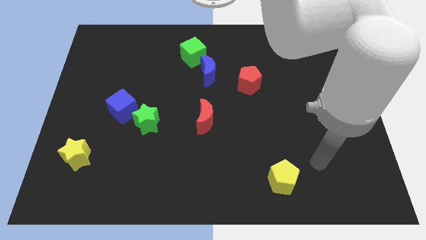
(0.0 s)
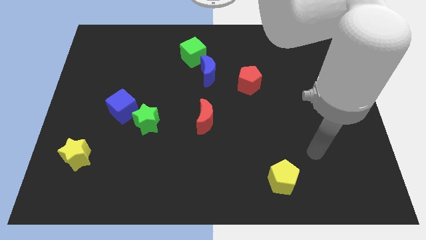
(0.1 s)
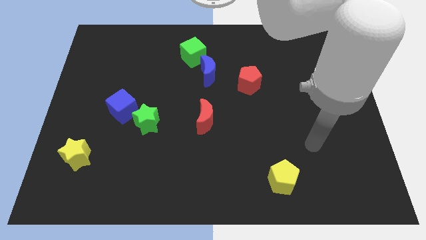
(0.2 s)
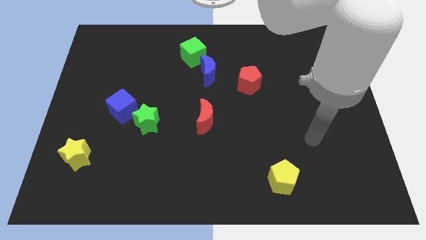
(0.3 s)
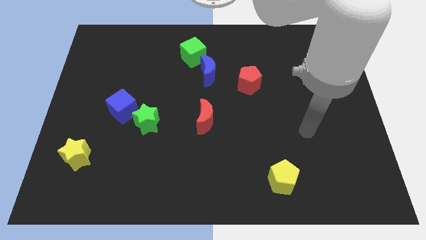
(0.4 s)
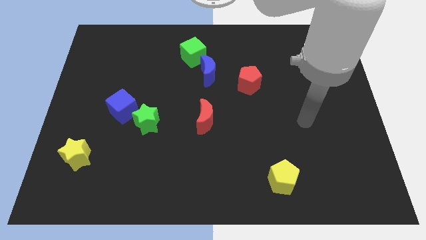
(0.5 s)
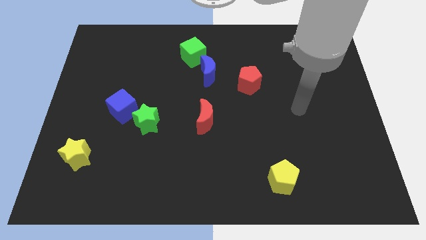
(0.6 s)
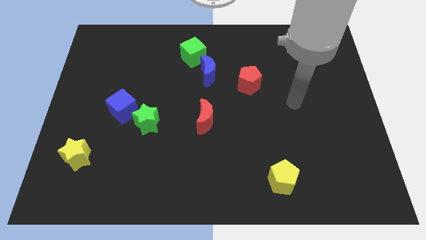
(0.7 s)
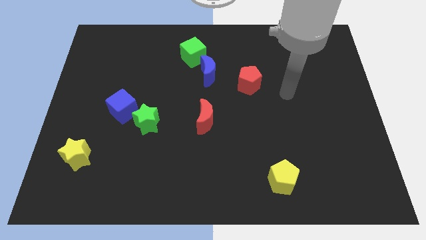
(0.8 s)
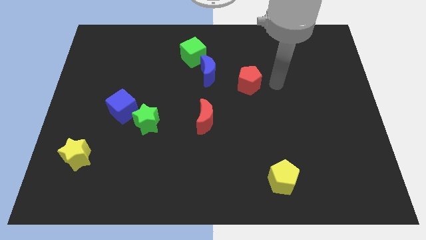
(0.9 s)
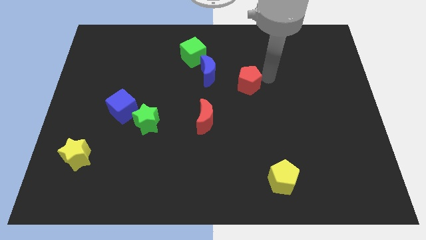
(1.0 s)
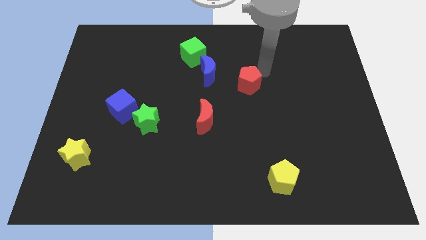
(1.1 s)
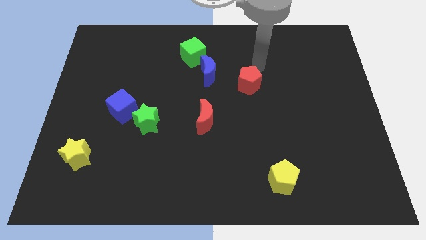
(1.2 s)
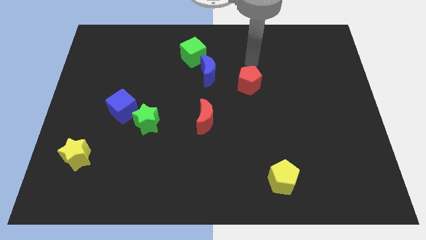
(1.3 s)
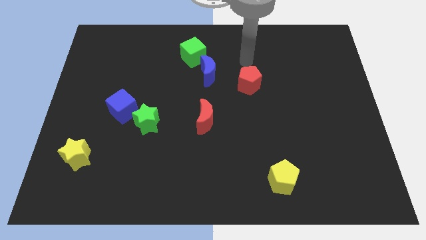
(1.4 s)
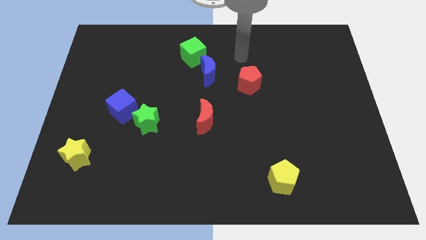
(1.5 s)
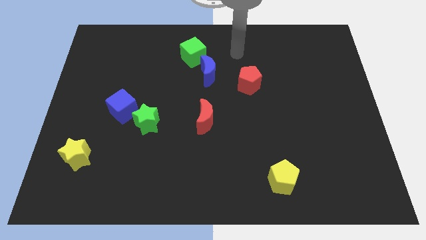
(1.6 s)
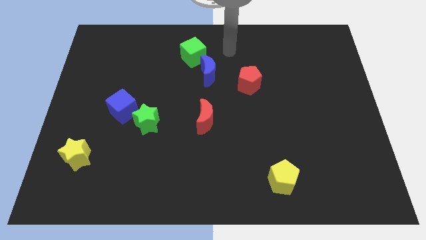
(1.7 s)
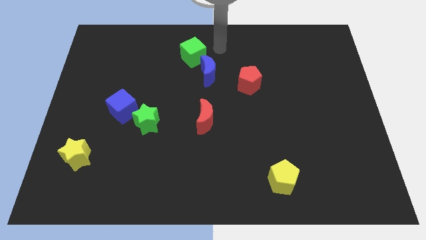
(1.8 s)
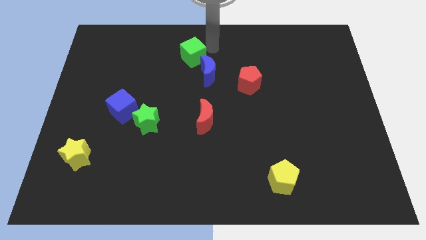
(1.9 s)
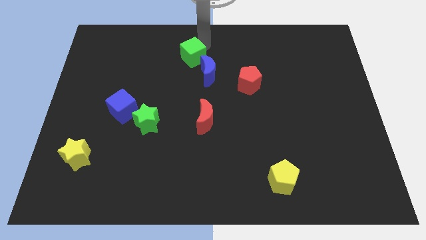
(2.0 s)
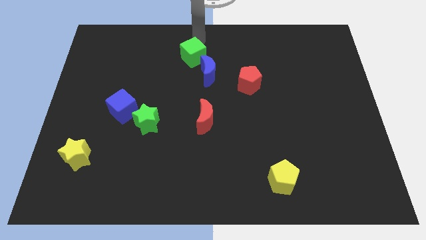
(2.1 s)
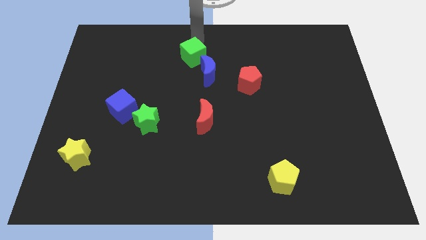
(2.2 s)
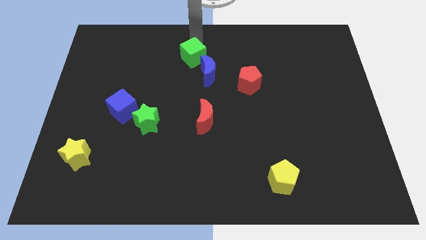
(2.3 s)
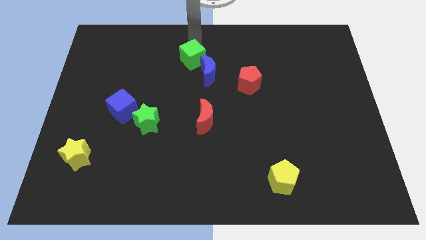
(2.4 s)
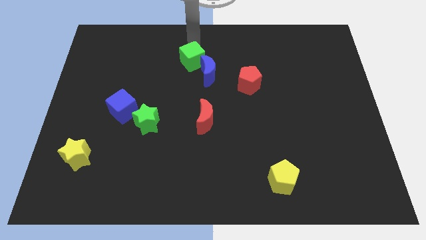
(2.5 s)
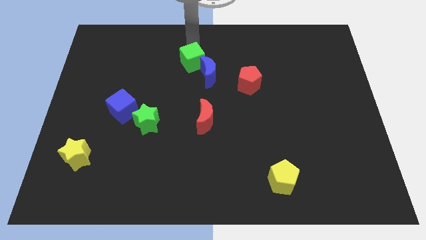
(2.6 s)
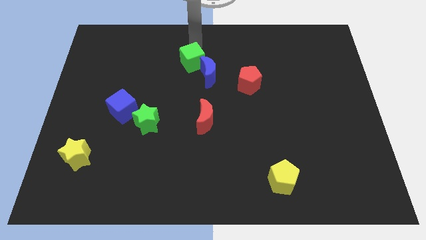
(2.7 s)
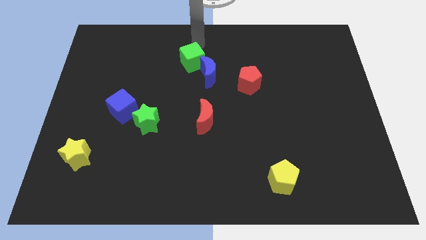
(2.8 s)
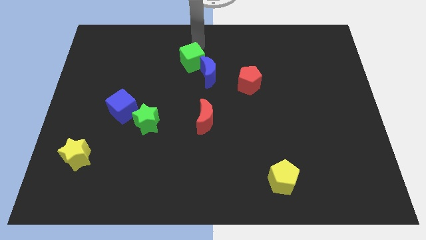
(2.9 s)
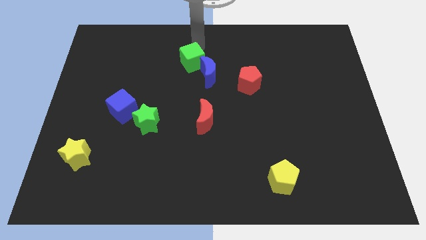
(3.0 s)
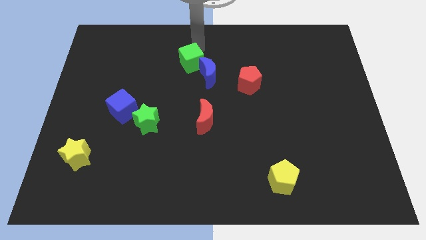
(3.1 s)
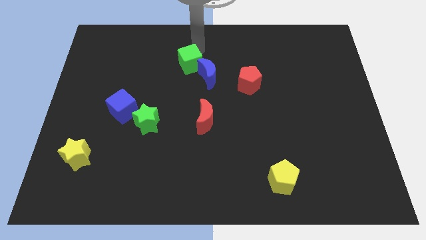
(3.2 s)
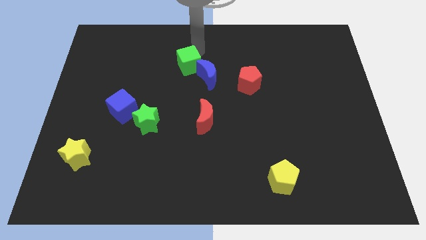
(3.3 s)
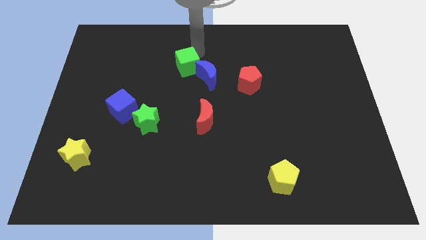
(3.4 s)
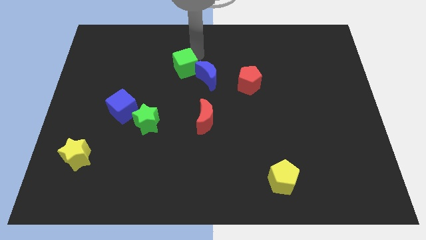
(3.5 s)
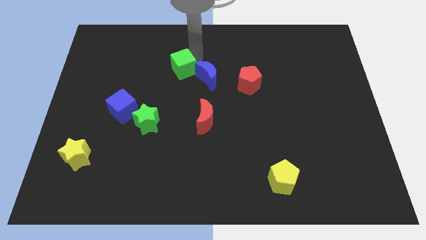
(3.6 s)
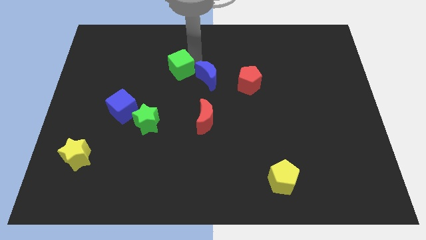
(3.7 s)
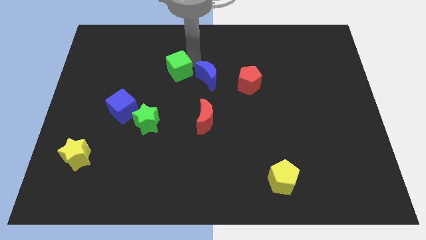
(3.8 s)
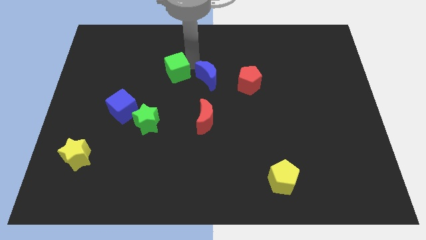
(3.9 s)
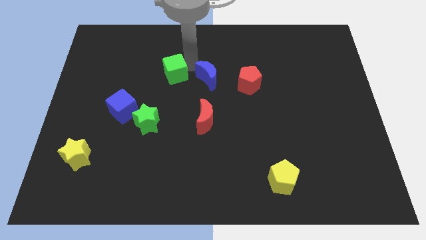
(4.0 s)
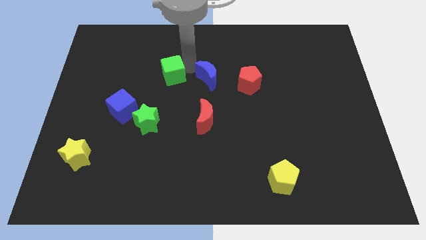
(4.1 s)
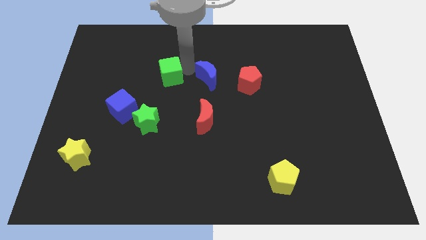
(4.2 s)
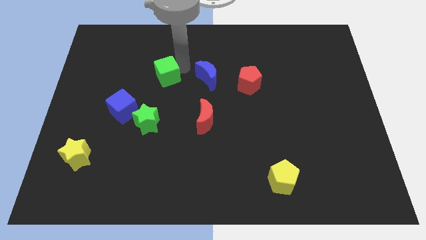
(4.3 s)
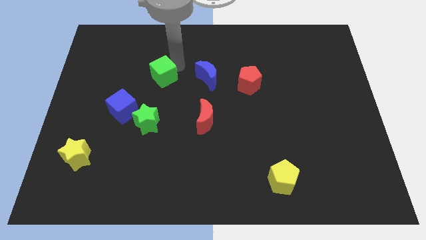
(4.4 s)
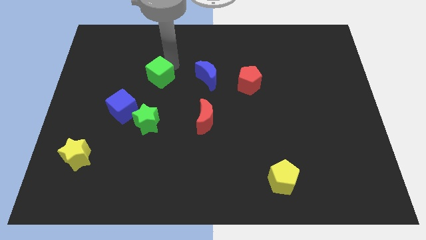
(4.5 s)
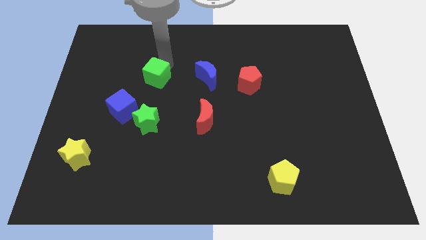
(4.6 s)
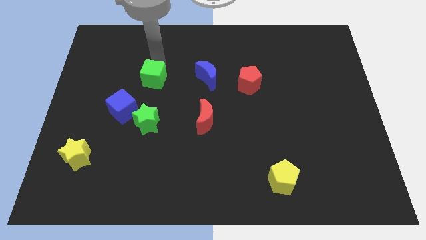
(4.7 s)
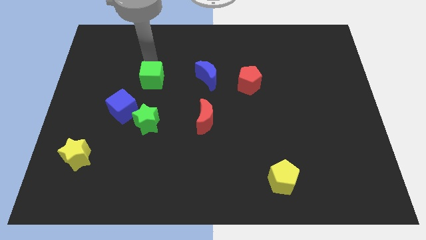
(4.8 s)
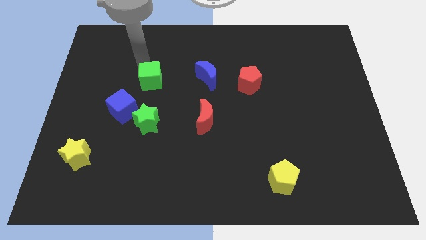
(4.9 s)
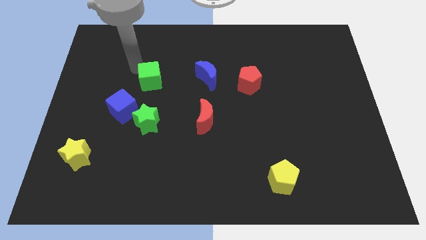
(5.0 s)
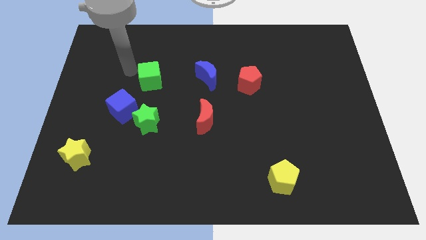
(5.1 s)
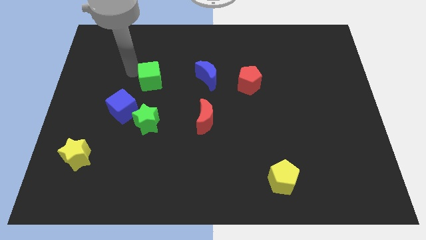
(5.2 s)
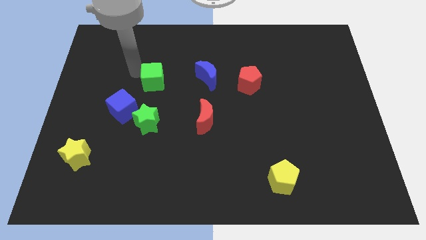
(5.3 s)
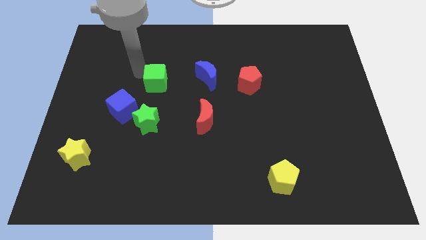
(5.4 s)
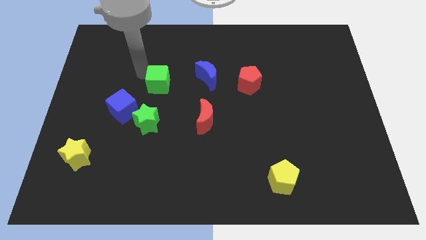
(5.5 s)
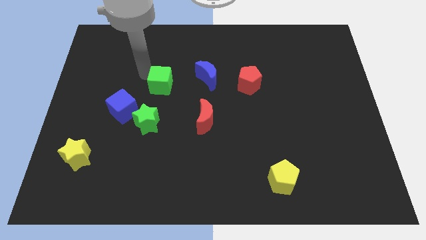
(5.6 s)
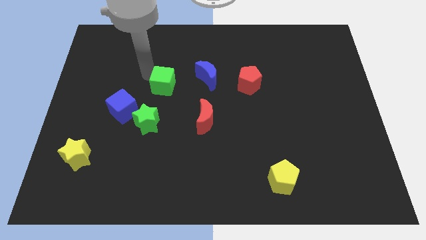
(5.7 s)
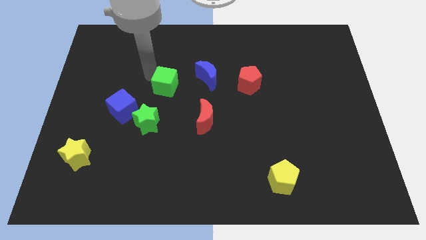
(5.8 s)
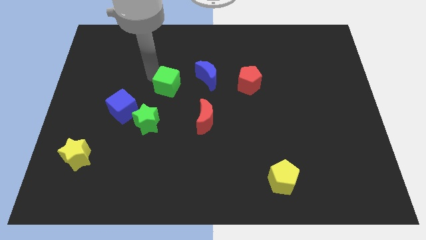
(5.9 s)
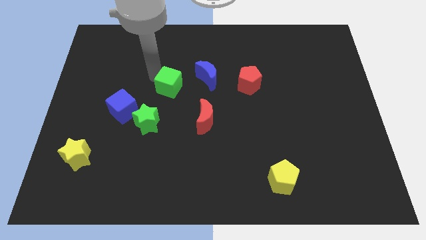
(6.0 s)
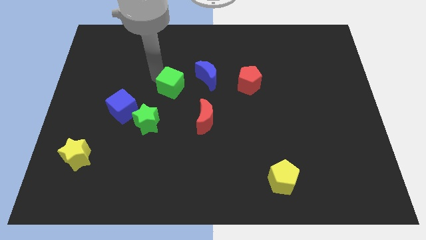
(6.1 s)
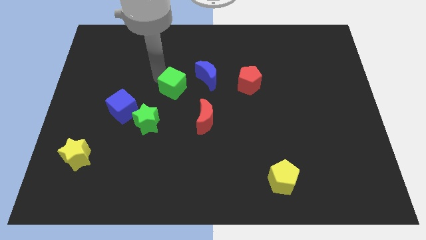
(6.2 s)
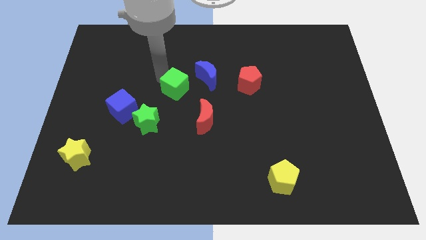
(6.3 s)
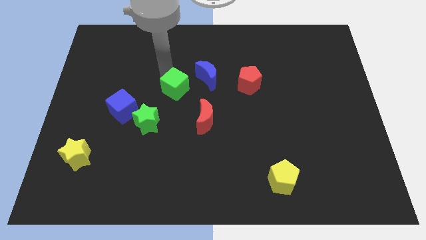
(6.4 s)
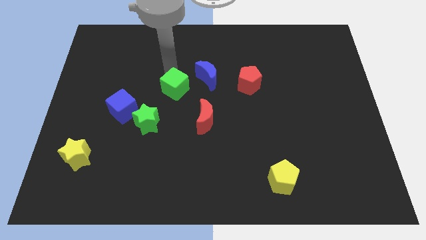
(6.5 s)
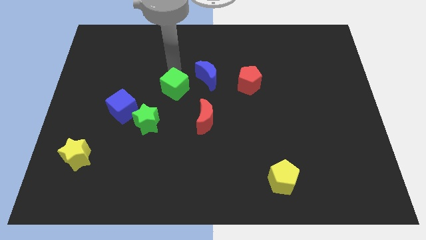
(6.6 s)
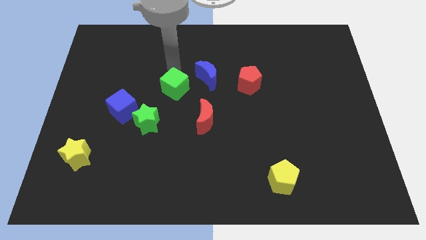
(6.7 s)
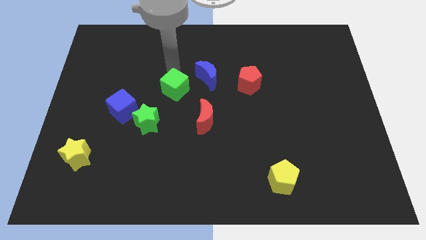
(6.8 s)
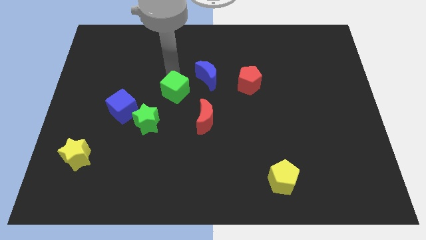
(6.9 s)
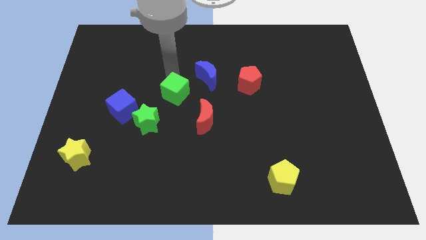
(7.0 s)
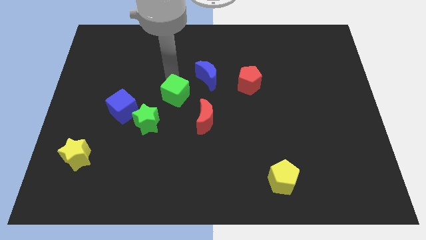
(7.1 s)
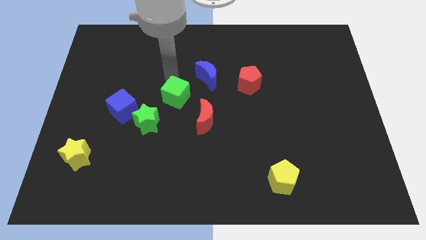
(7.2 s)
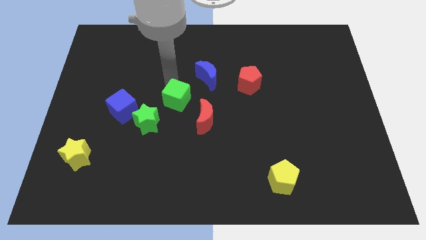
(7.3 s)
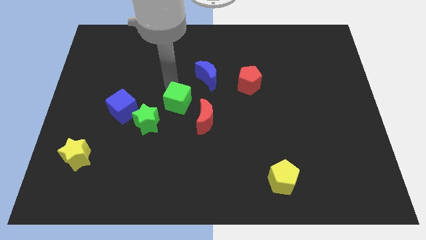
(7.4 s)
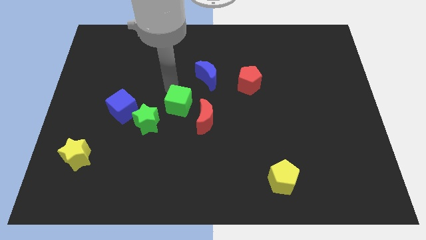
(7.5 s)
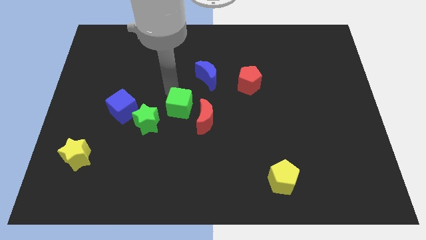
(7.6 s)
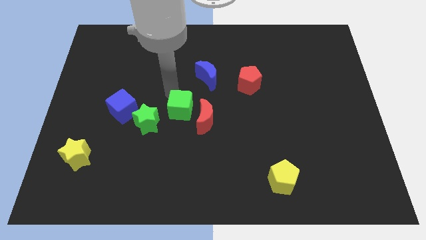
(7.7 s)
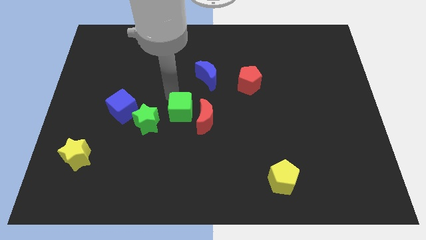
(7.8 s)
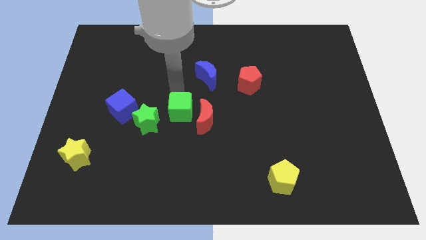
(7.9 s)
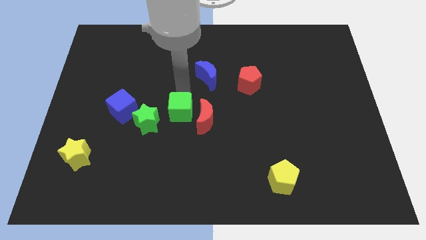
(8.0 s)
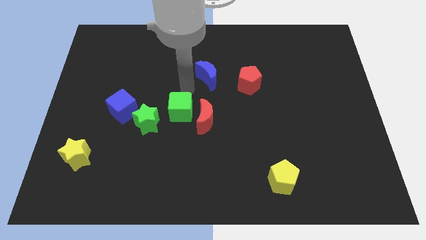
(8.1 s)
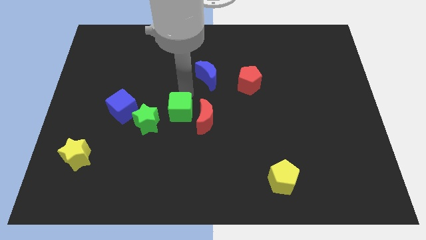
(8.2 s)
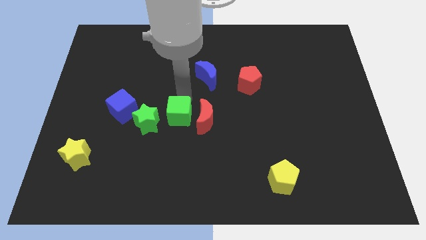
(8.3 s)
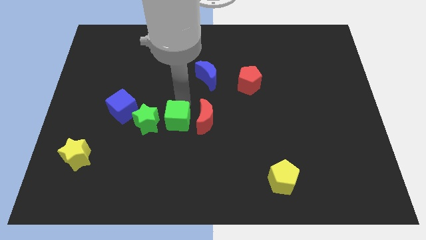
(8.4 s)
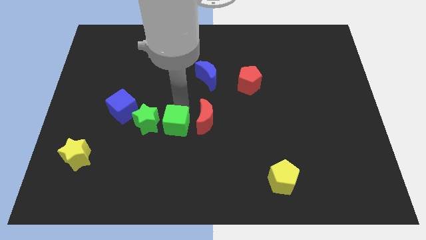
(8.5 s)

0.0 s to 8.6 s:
put the green cube to the bottom right of the green star
